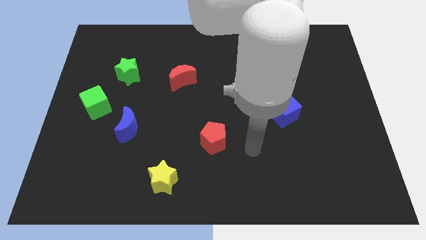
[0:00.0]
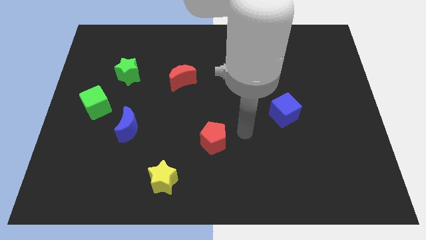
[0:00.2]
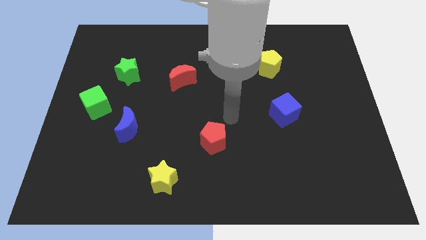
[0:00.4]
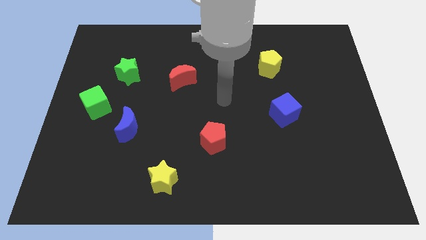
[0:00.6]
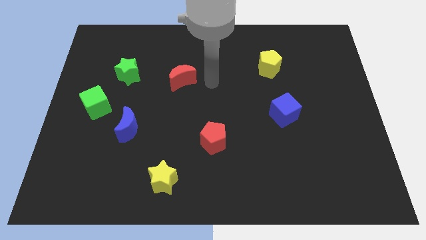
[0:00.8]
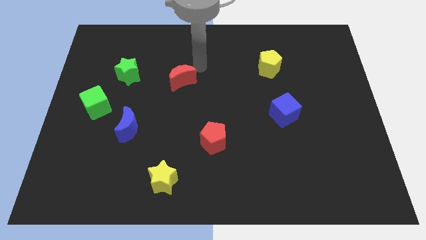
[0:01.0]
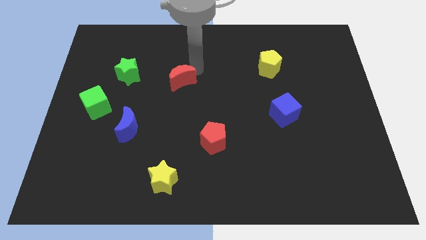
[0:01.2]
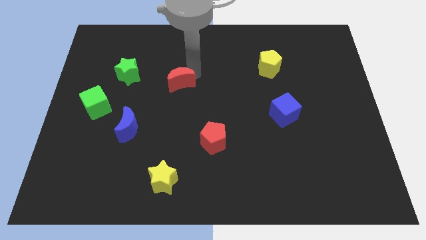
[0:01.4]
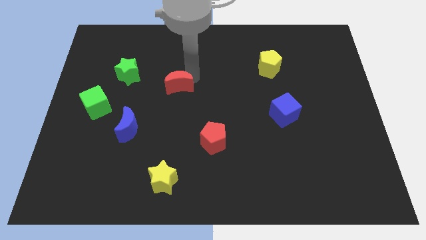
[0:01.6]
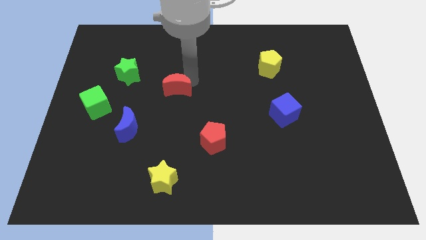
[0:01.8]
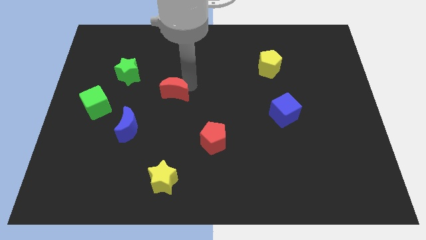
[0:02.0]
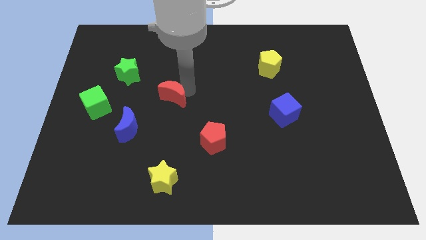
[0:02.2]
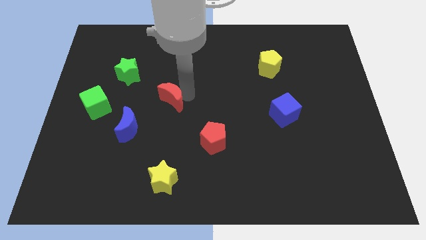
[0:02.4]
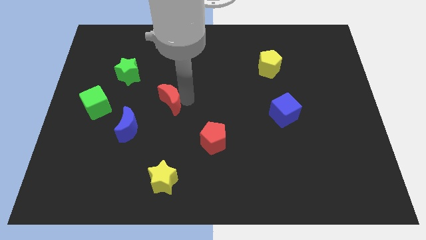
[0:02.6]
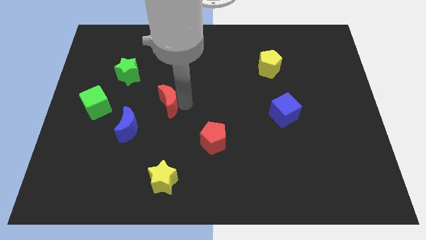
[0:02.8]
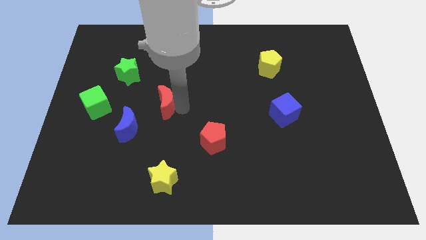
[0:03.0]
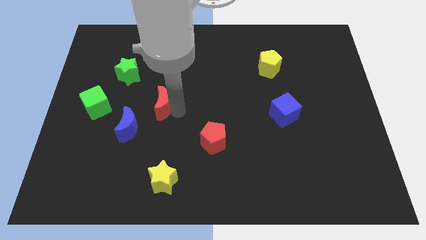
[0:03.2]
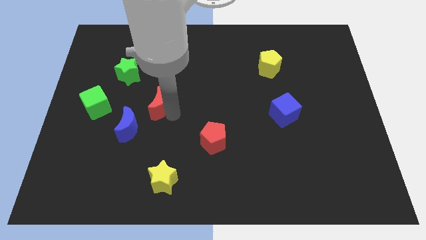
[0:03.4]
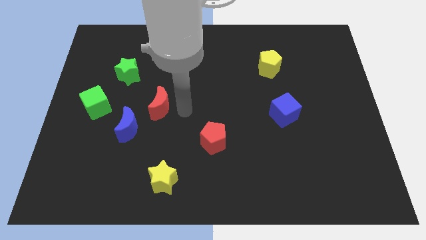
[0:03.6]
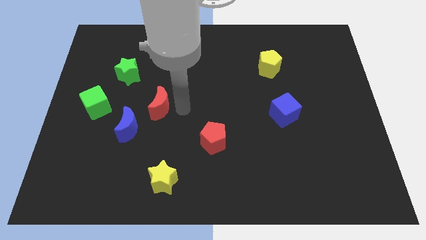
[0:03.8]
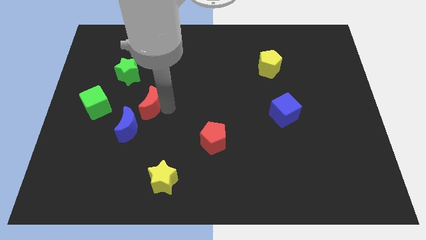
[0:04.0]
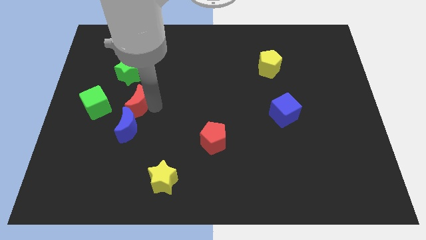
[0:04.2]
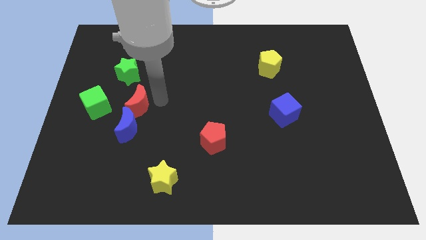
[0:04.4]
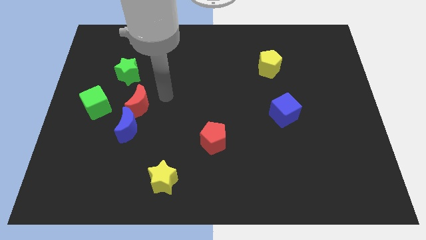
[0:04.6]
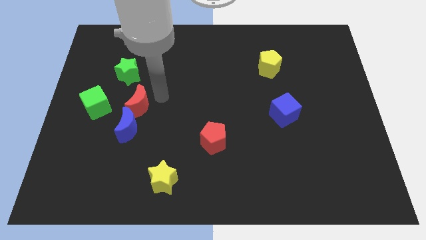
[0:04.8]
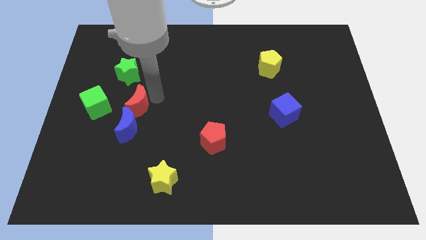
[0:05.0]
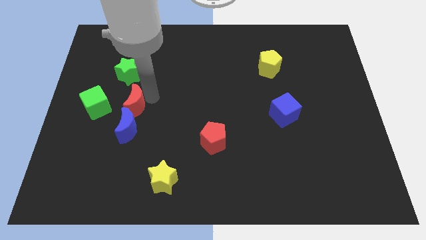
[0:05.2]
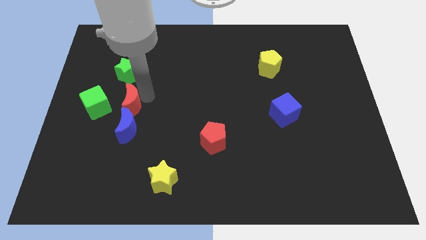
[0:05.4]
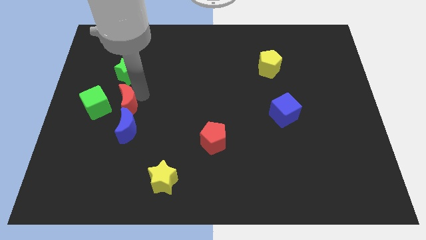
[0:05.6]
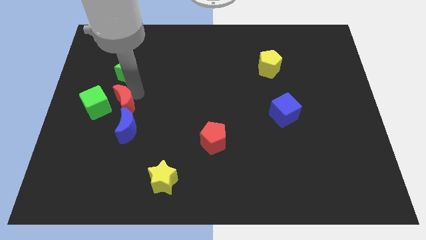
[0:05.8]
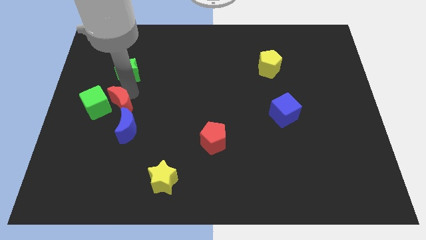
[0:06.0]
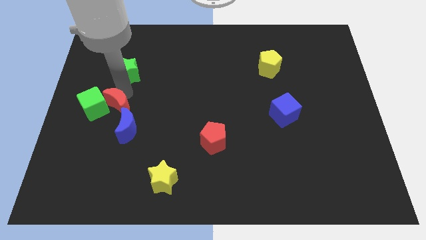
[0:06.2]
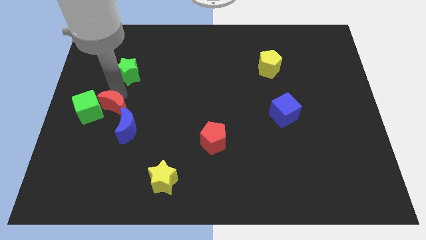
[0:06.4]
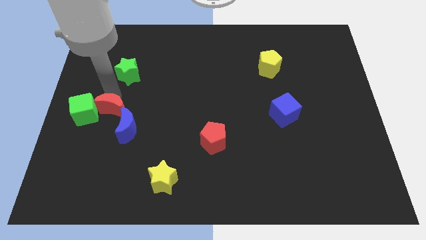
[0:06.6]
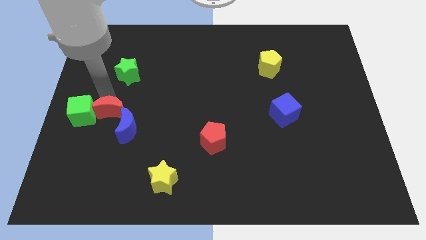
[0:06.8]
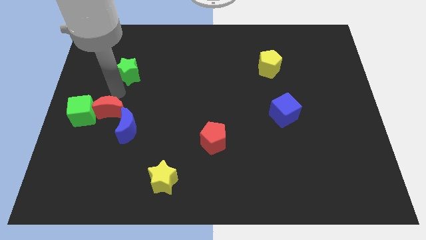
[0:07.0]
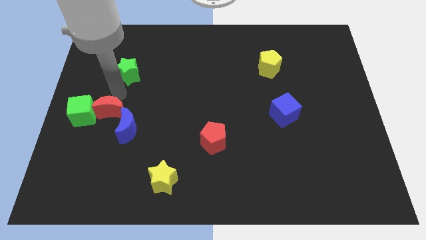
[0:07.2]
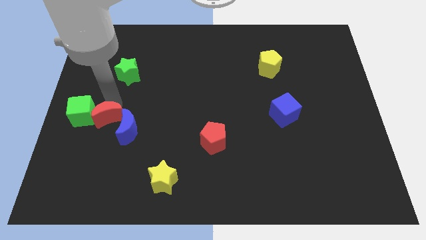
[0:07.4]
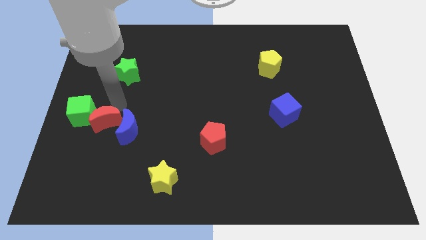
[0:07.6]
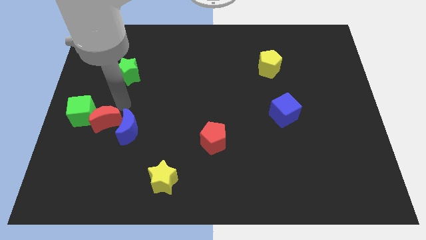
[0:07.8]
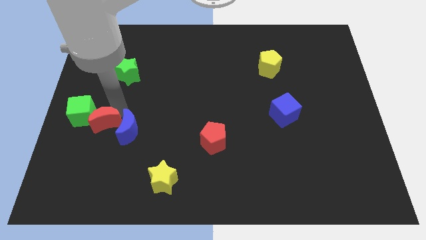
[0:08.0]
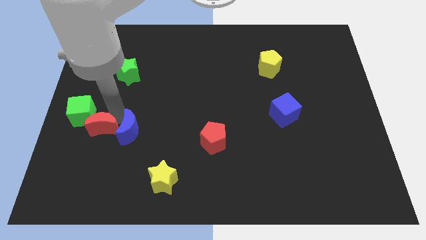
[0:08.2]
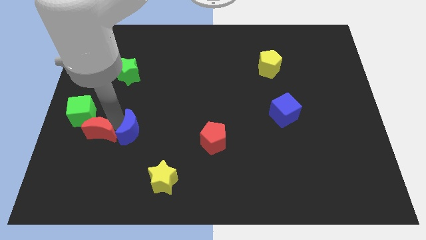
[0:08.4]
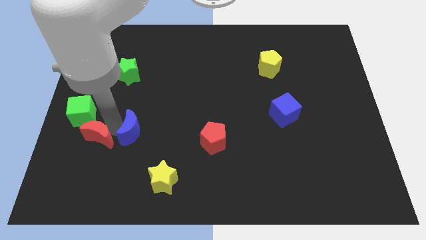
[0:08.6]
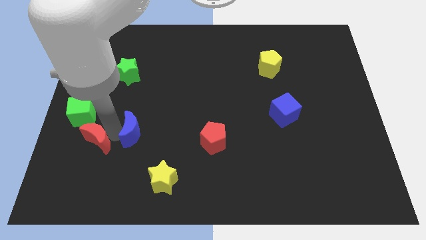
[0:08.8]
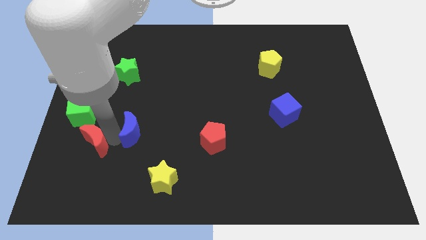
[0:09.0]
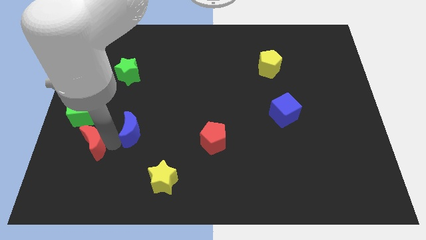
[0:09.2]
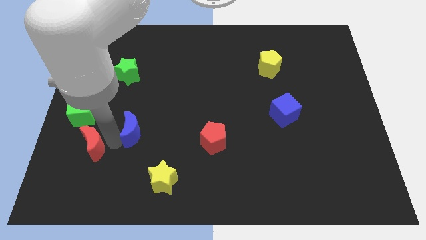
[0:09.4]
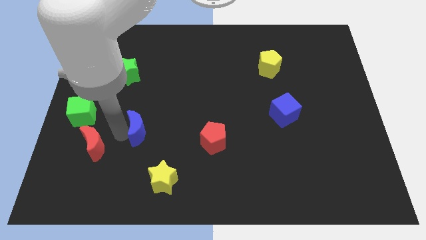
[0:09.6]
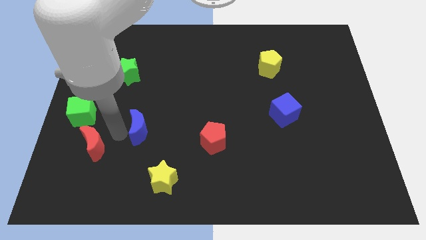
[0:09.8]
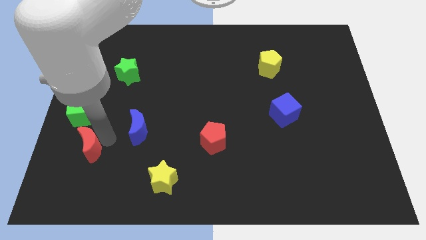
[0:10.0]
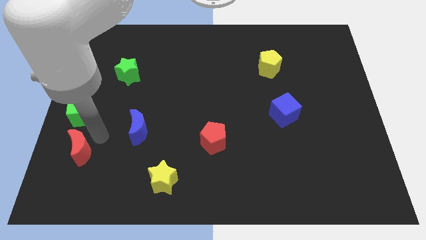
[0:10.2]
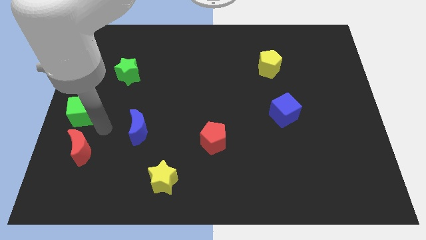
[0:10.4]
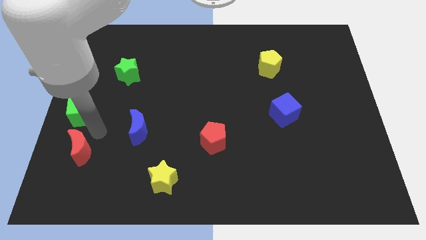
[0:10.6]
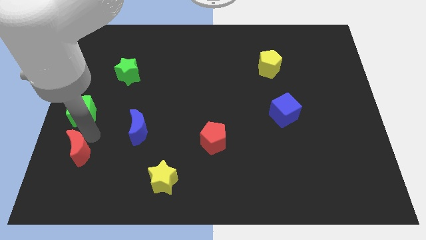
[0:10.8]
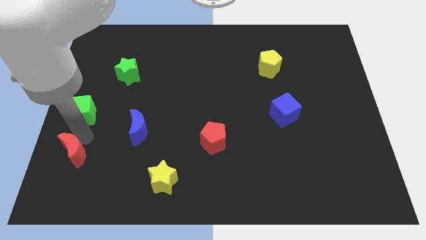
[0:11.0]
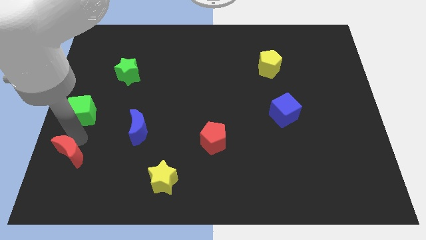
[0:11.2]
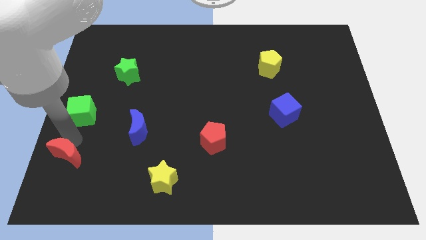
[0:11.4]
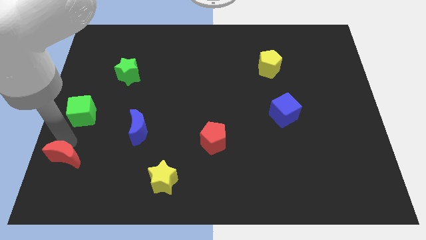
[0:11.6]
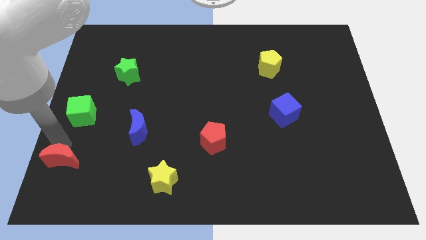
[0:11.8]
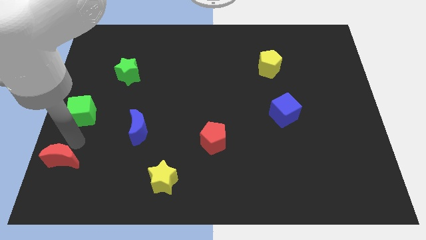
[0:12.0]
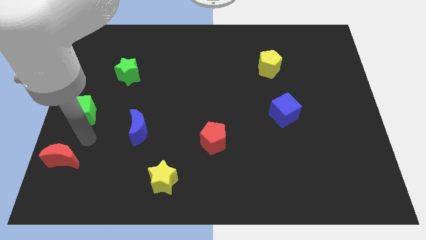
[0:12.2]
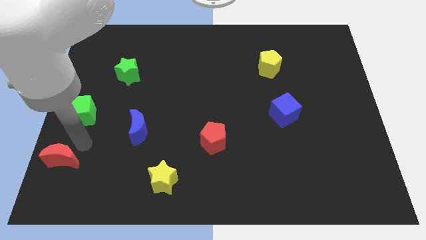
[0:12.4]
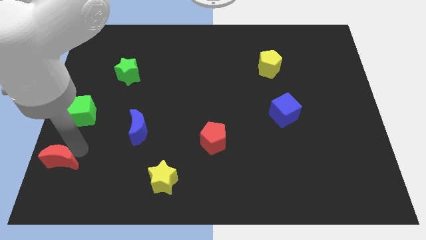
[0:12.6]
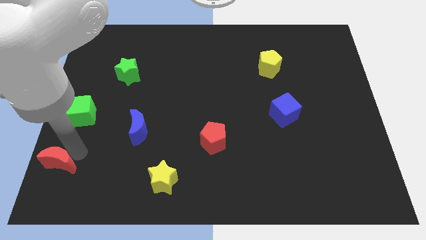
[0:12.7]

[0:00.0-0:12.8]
put the red moon to the bottom left corner
